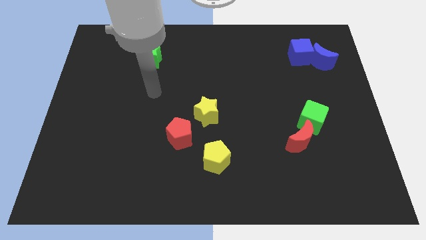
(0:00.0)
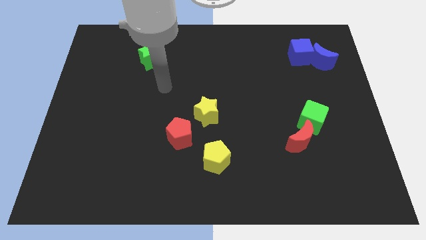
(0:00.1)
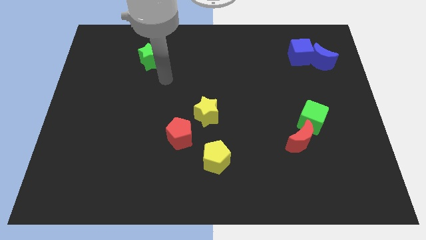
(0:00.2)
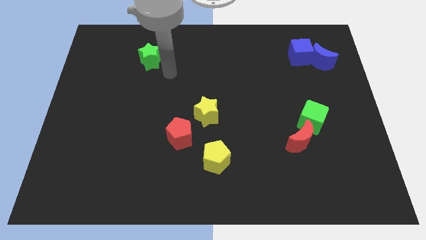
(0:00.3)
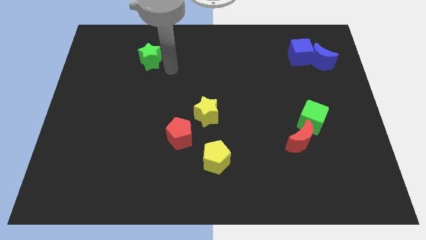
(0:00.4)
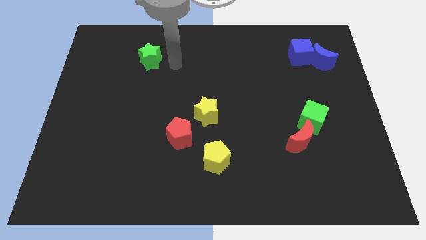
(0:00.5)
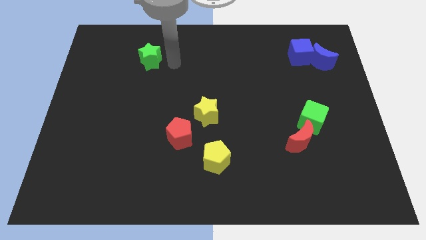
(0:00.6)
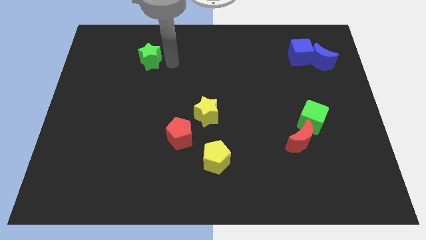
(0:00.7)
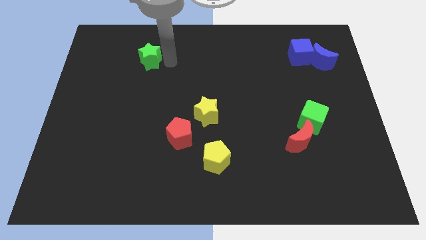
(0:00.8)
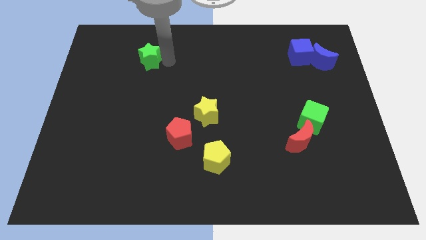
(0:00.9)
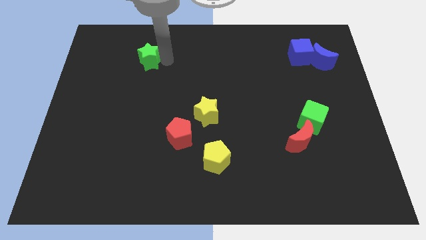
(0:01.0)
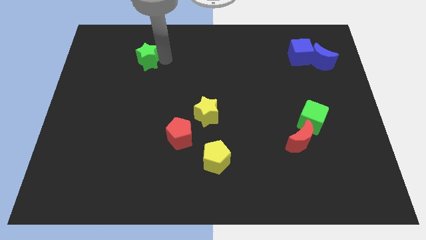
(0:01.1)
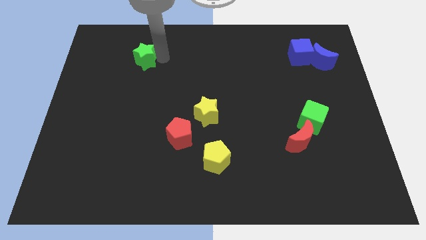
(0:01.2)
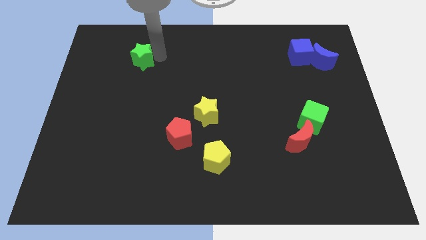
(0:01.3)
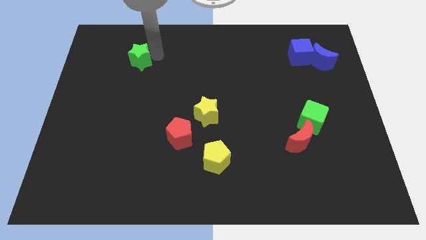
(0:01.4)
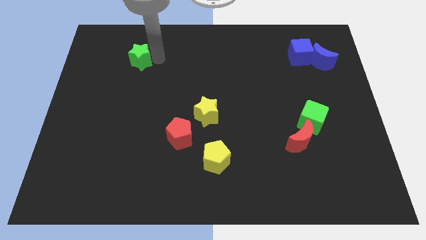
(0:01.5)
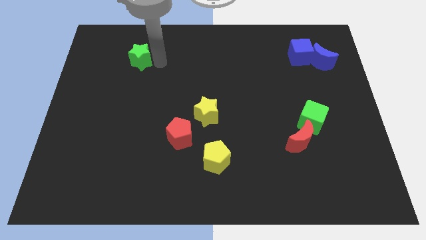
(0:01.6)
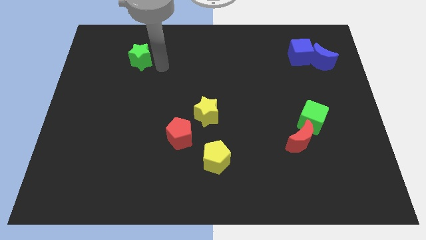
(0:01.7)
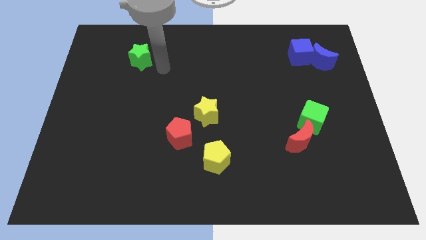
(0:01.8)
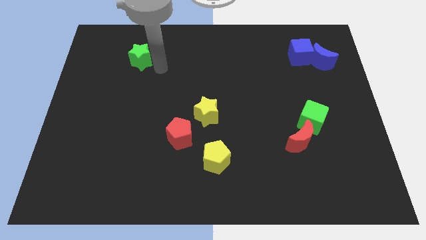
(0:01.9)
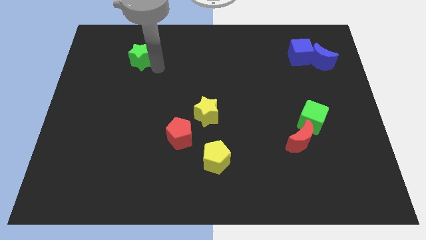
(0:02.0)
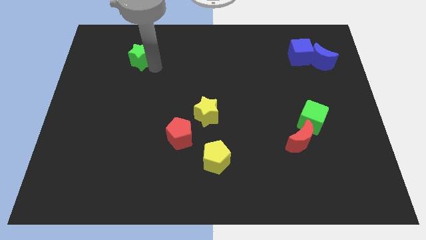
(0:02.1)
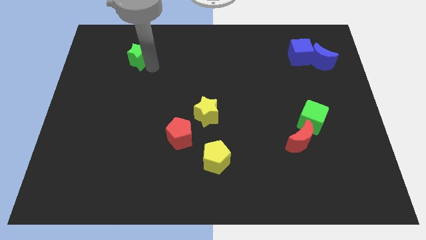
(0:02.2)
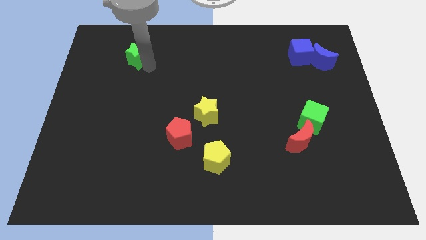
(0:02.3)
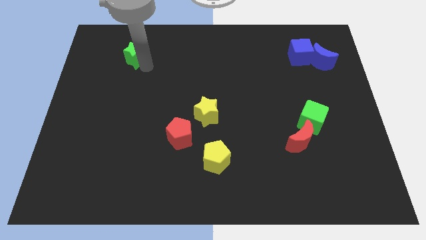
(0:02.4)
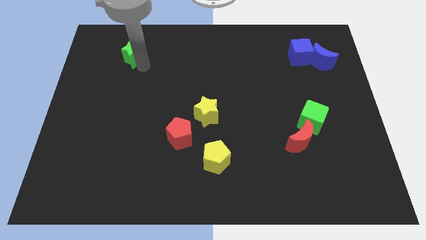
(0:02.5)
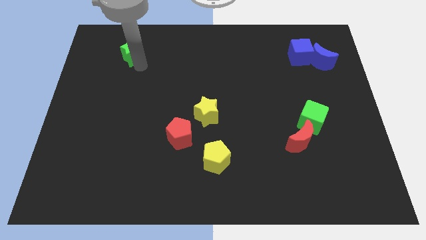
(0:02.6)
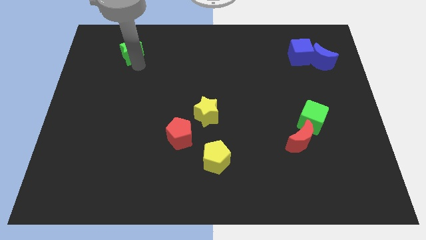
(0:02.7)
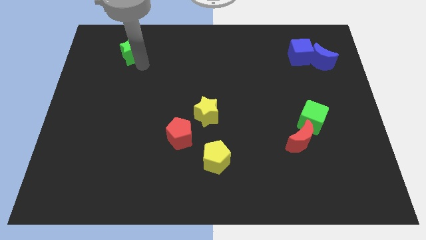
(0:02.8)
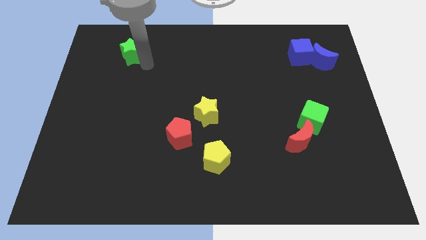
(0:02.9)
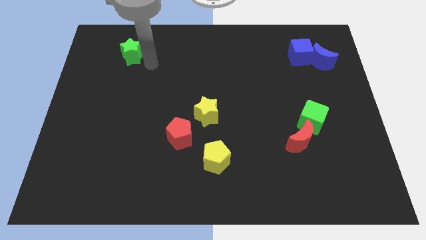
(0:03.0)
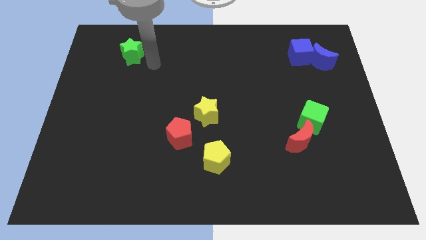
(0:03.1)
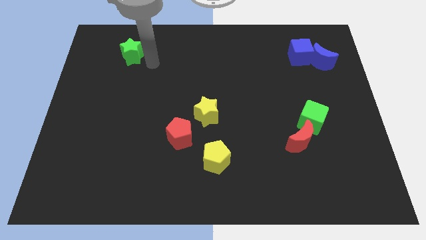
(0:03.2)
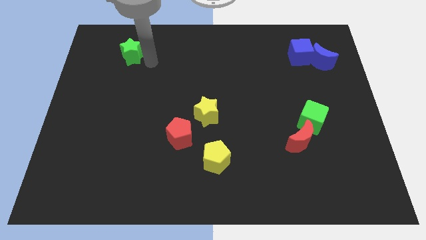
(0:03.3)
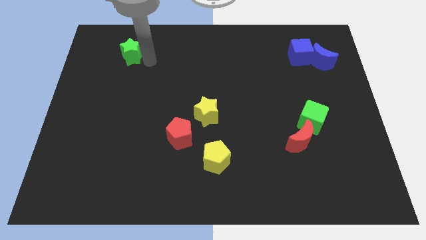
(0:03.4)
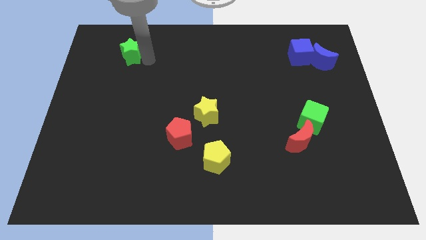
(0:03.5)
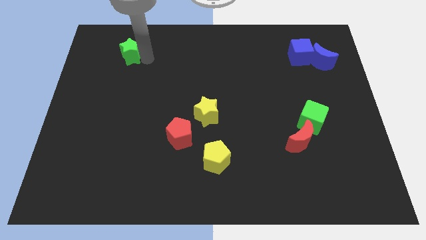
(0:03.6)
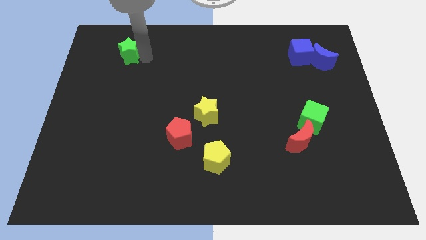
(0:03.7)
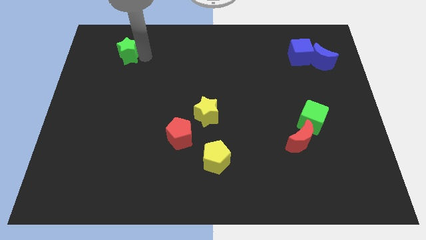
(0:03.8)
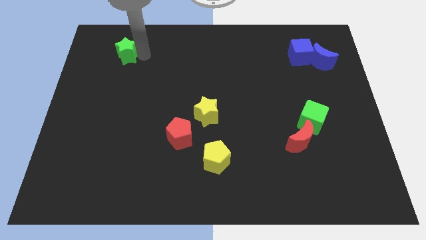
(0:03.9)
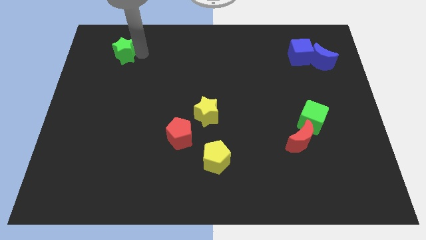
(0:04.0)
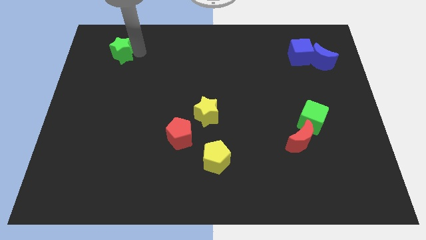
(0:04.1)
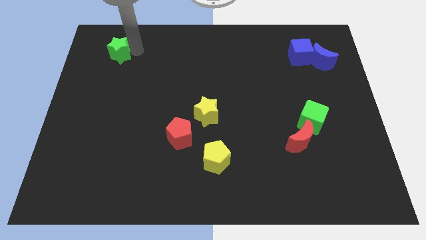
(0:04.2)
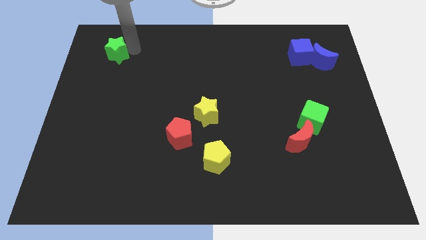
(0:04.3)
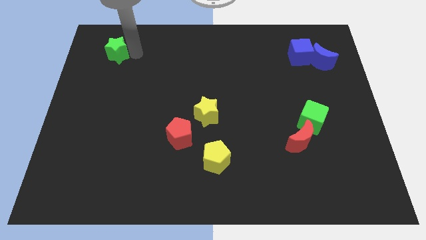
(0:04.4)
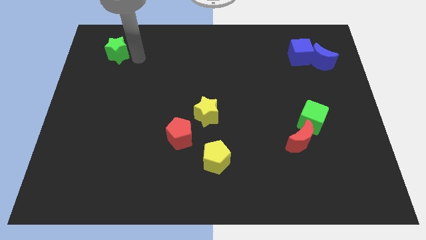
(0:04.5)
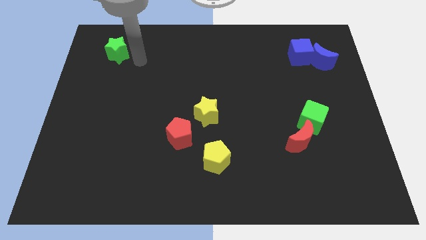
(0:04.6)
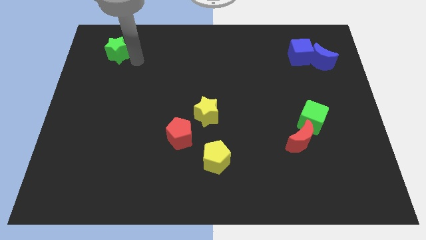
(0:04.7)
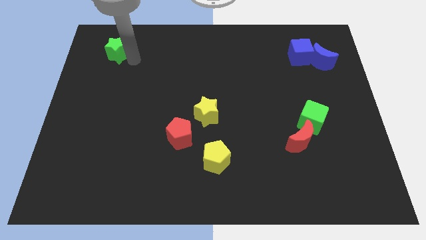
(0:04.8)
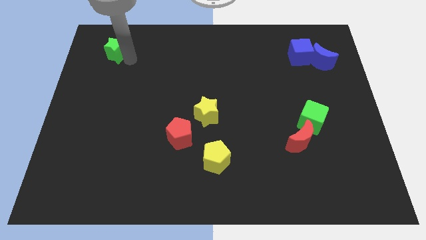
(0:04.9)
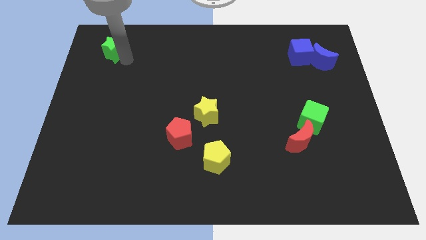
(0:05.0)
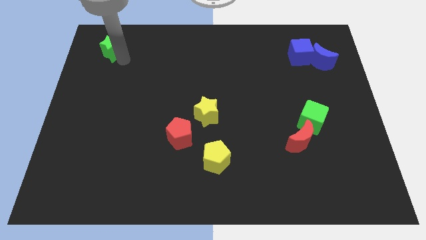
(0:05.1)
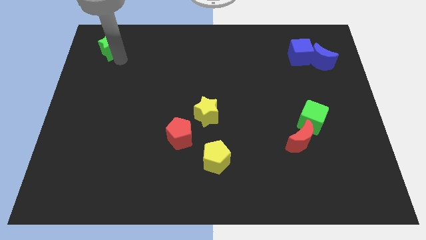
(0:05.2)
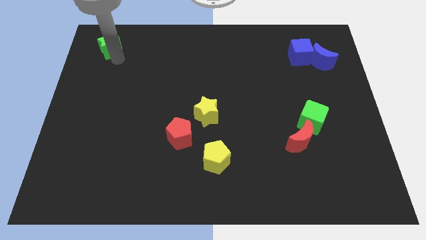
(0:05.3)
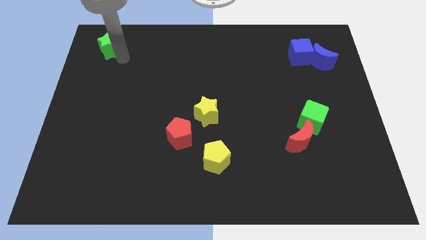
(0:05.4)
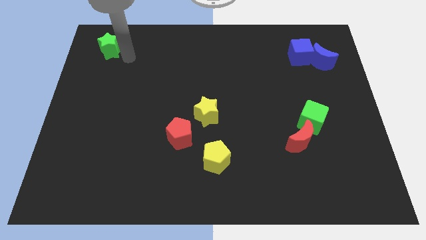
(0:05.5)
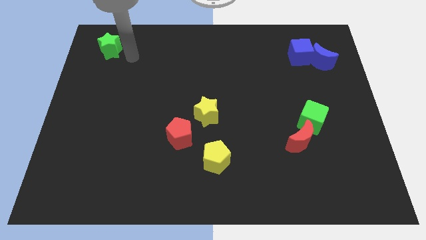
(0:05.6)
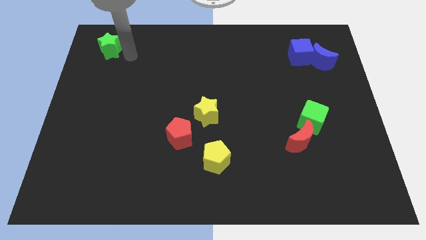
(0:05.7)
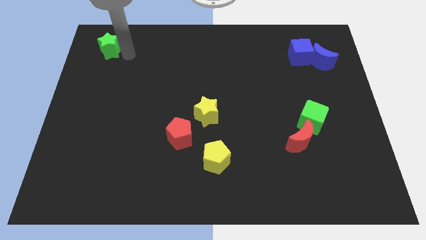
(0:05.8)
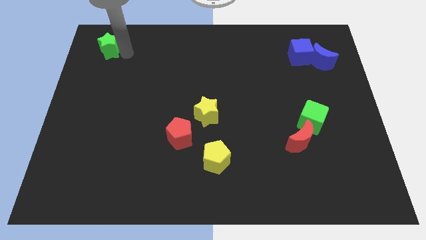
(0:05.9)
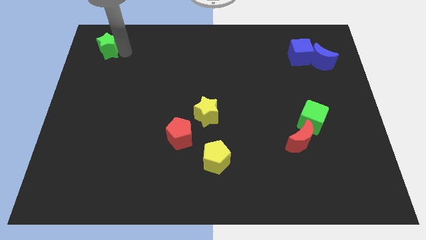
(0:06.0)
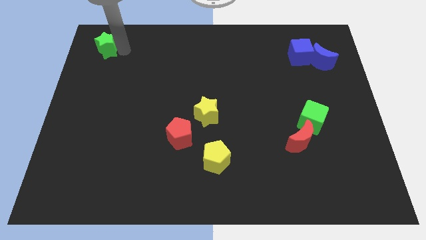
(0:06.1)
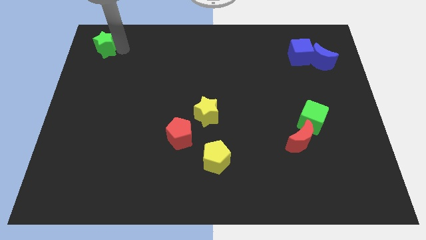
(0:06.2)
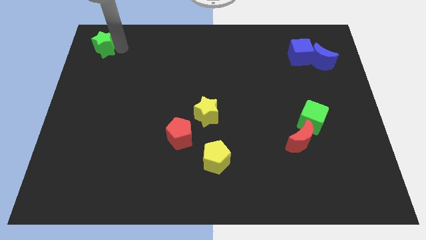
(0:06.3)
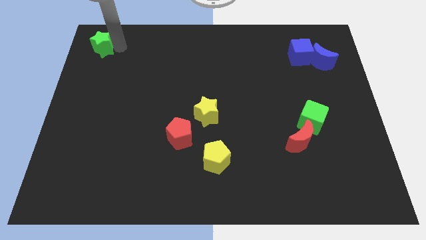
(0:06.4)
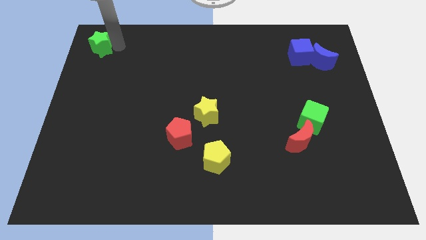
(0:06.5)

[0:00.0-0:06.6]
slide the green star to the upper left corner

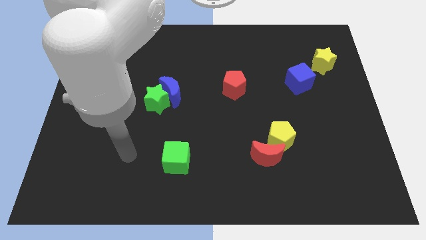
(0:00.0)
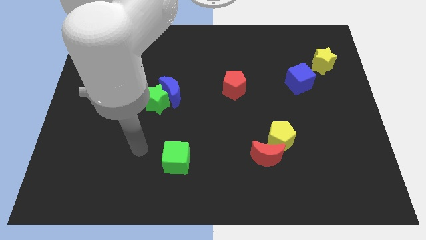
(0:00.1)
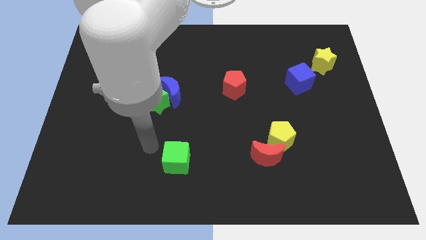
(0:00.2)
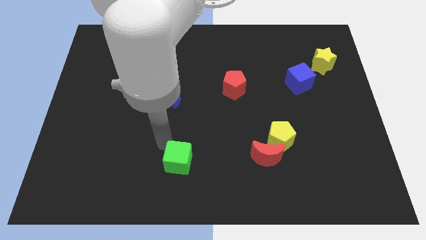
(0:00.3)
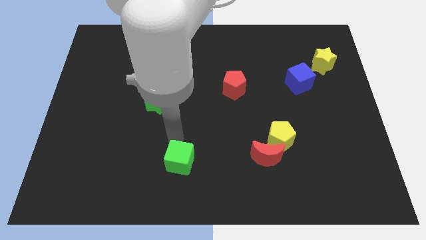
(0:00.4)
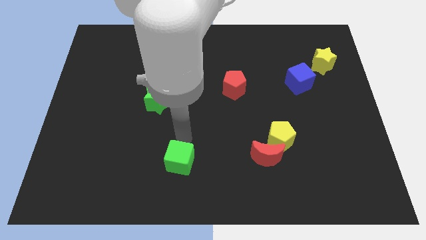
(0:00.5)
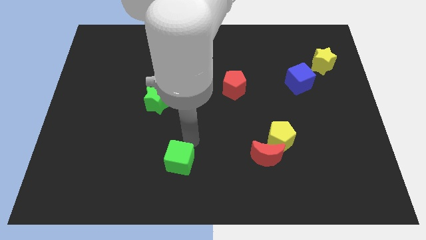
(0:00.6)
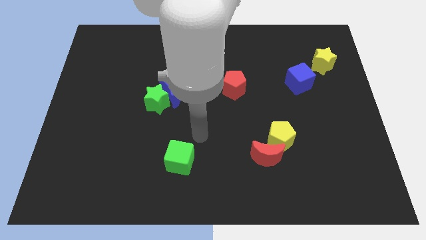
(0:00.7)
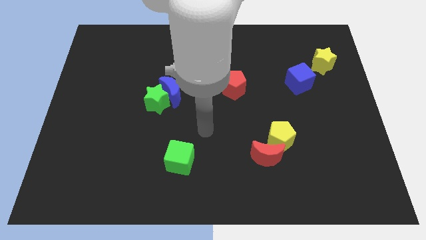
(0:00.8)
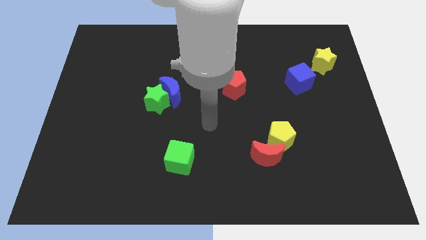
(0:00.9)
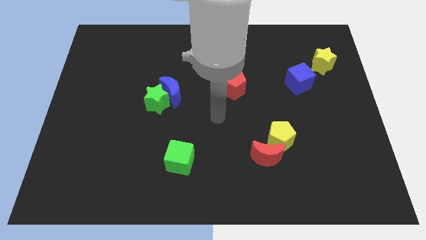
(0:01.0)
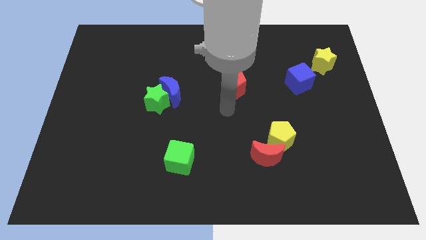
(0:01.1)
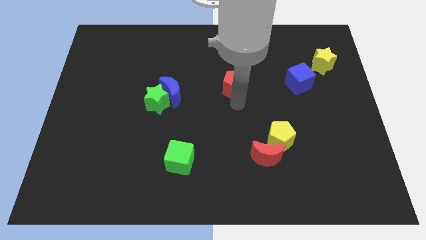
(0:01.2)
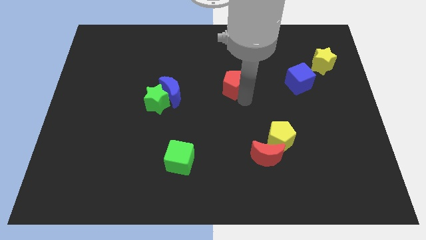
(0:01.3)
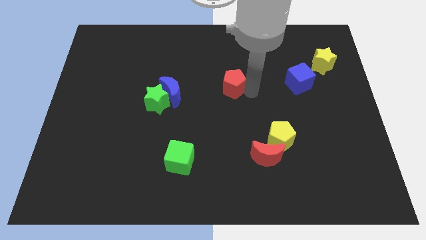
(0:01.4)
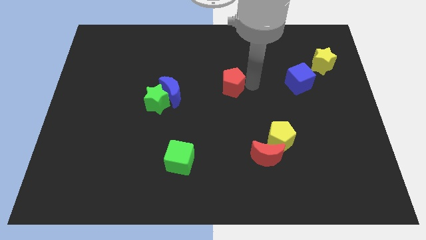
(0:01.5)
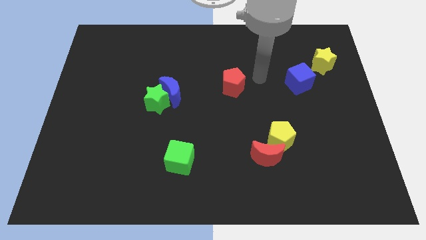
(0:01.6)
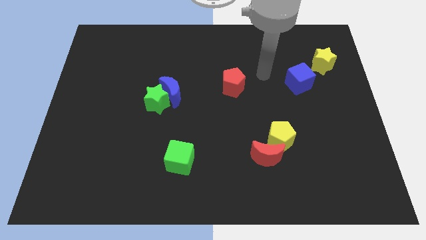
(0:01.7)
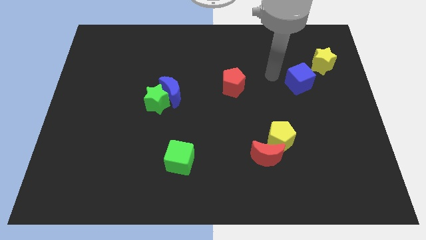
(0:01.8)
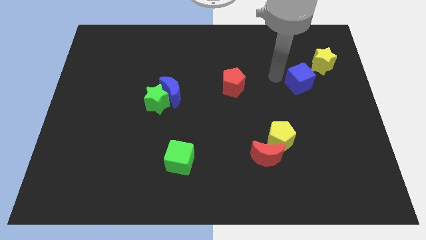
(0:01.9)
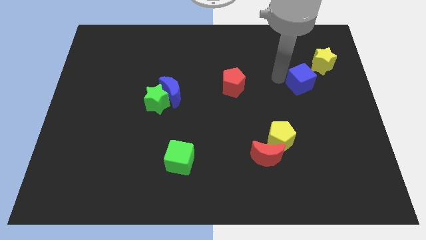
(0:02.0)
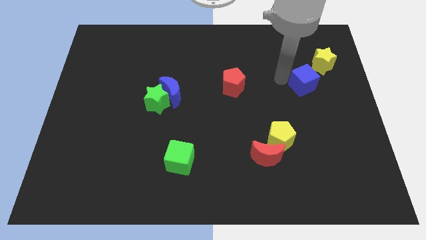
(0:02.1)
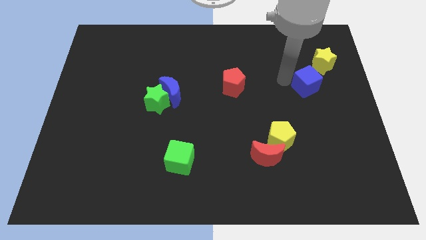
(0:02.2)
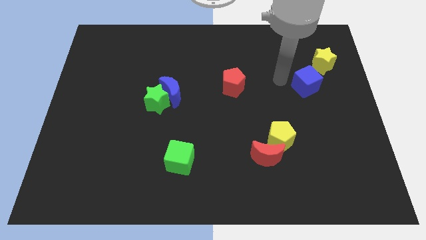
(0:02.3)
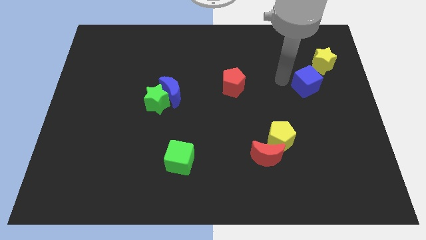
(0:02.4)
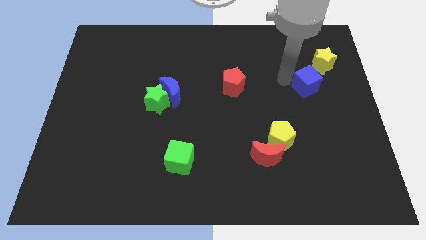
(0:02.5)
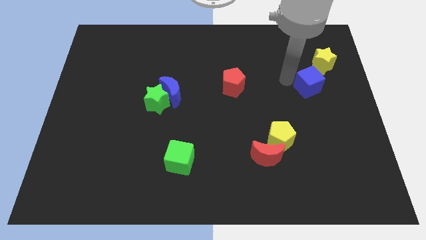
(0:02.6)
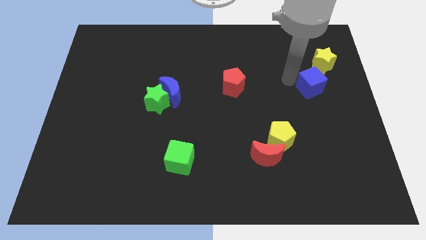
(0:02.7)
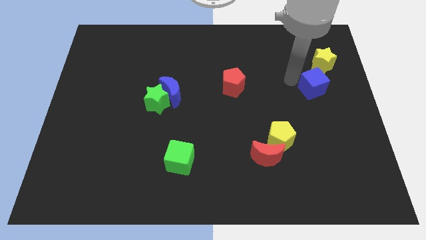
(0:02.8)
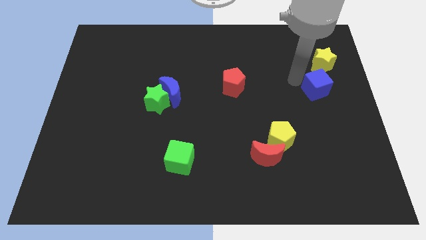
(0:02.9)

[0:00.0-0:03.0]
push the blue cube to the right side of the board
